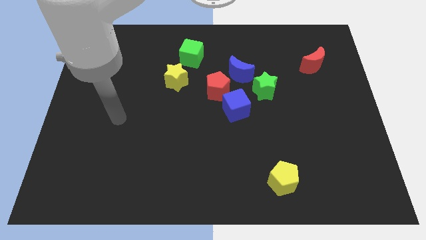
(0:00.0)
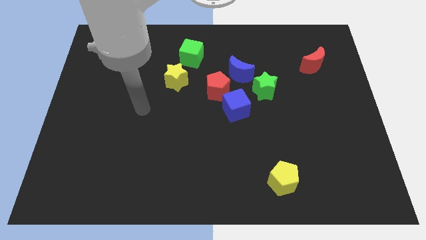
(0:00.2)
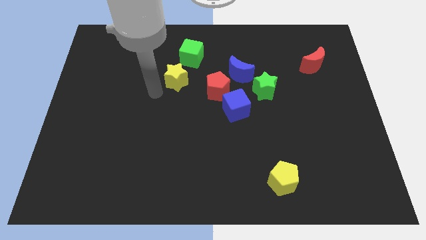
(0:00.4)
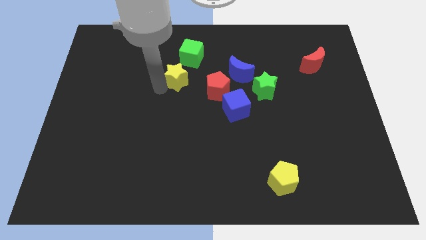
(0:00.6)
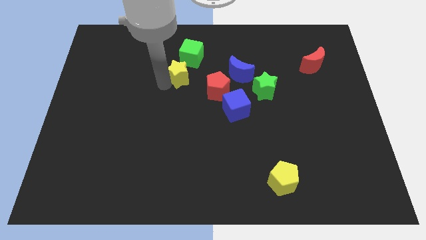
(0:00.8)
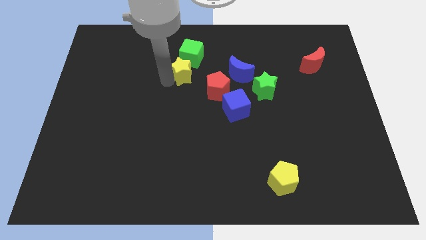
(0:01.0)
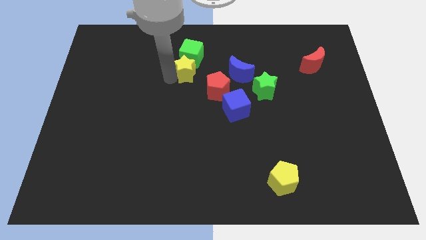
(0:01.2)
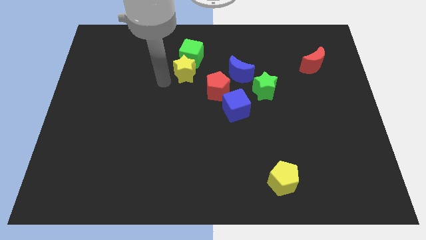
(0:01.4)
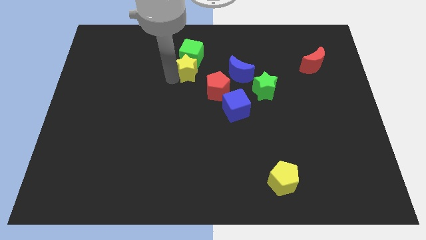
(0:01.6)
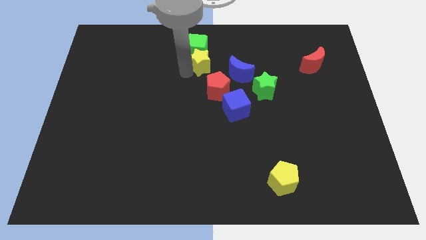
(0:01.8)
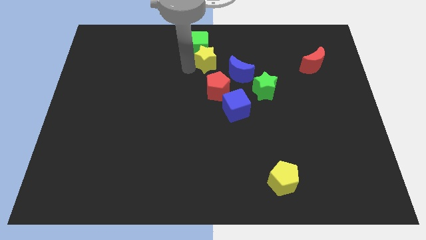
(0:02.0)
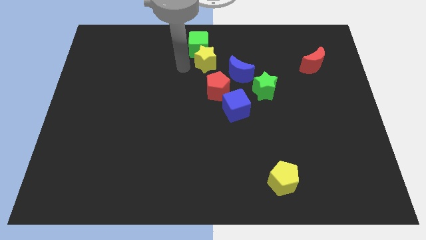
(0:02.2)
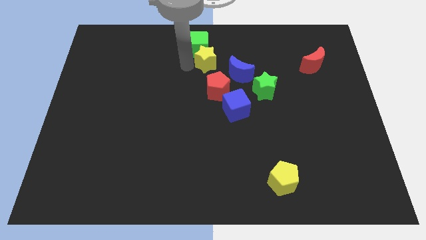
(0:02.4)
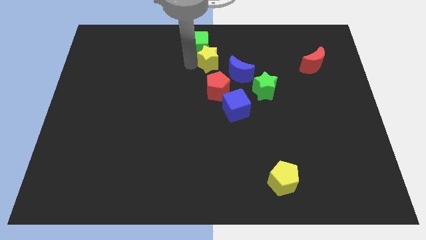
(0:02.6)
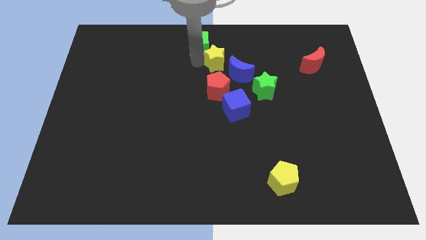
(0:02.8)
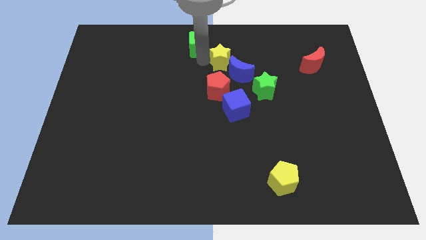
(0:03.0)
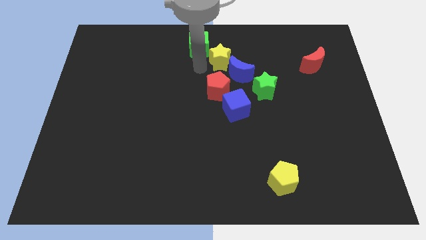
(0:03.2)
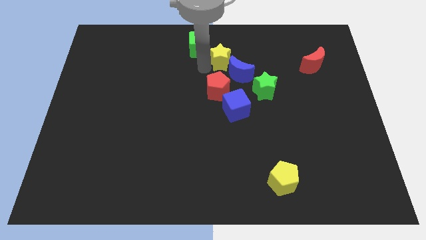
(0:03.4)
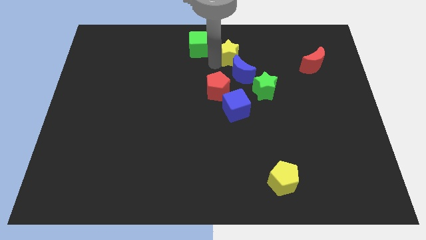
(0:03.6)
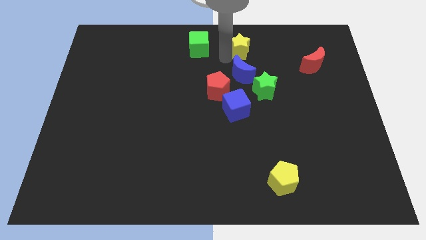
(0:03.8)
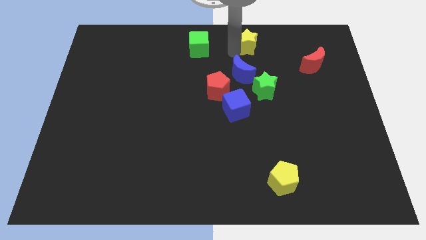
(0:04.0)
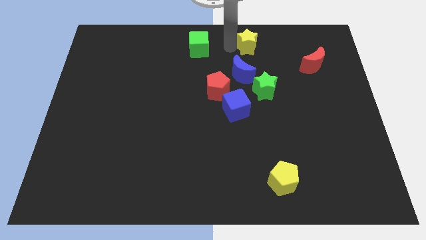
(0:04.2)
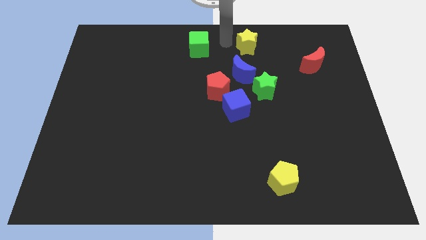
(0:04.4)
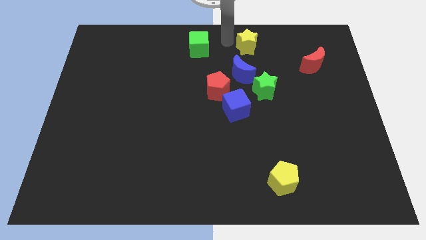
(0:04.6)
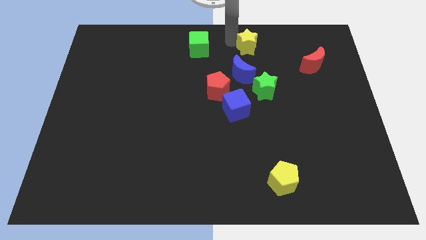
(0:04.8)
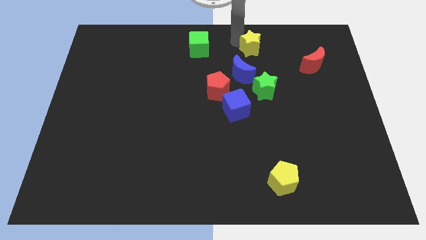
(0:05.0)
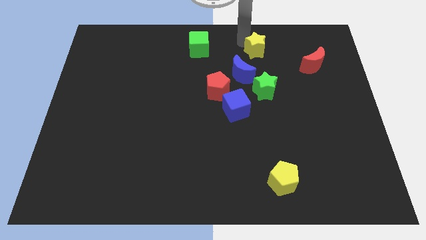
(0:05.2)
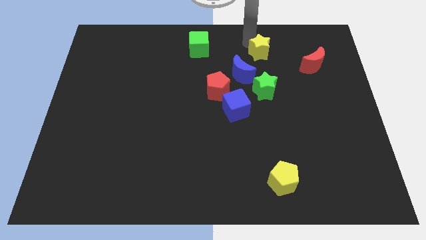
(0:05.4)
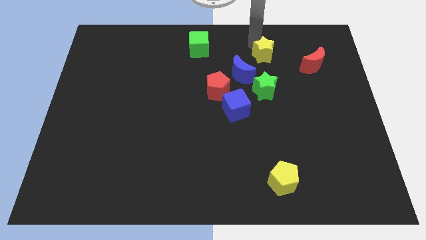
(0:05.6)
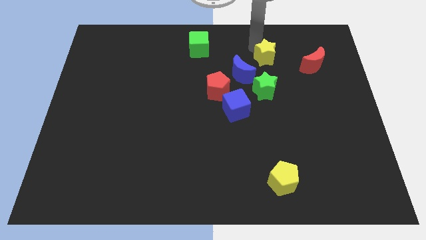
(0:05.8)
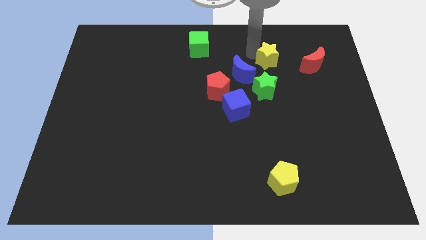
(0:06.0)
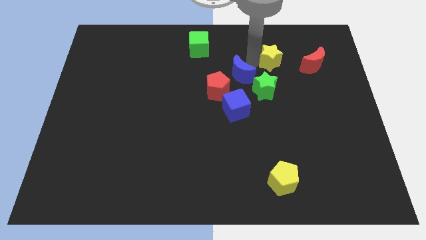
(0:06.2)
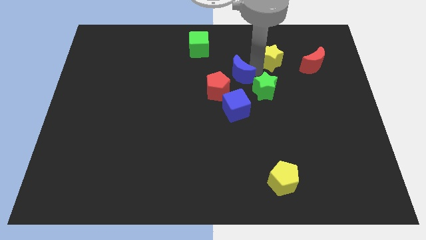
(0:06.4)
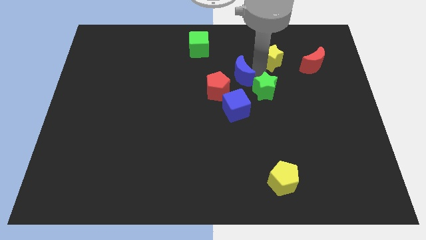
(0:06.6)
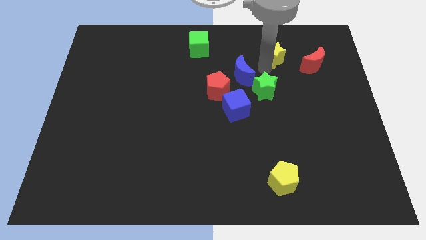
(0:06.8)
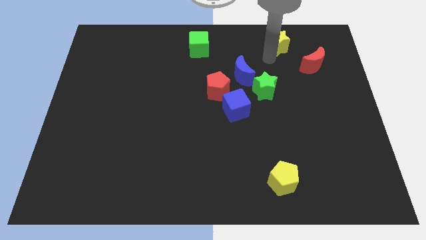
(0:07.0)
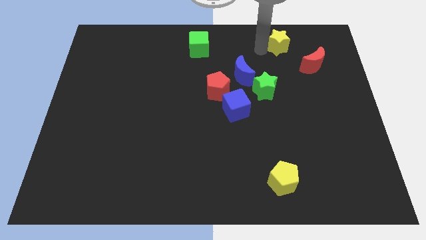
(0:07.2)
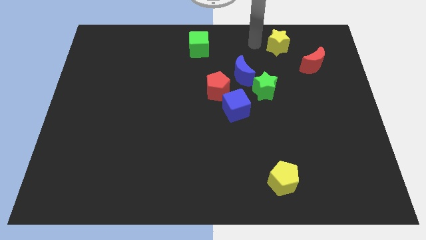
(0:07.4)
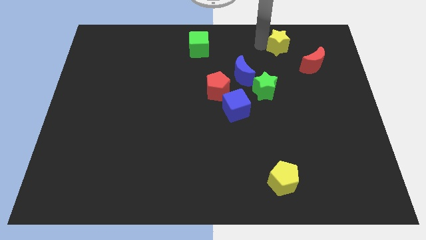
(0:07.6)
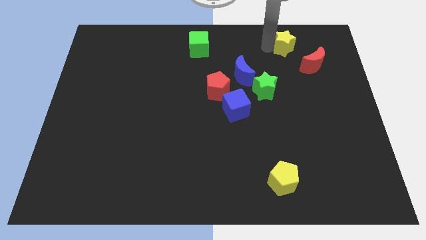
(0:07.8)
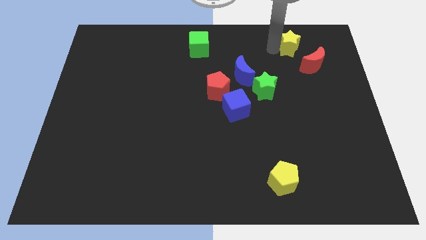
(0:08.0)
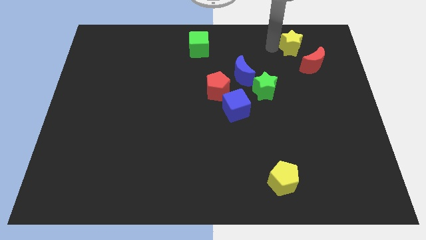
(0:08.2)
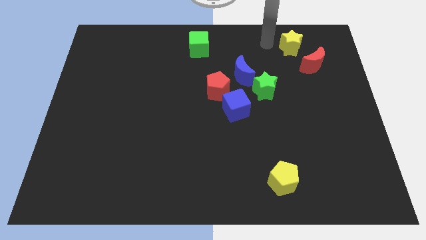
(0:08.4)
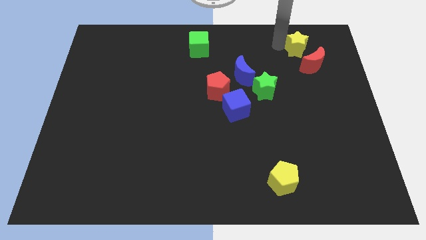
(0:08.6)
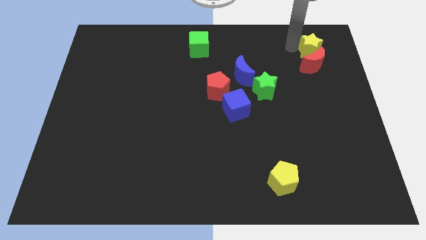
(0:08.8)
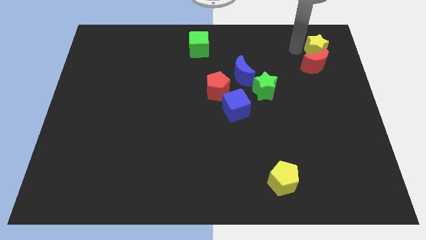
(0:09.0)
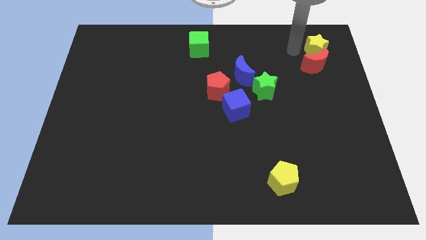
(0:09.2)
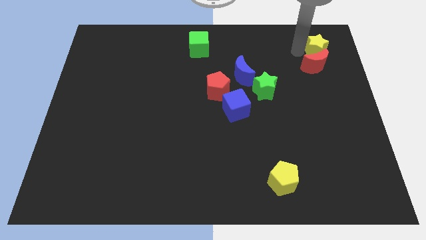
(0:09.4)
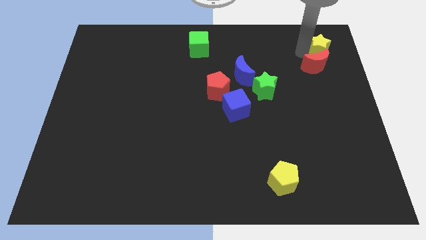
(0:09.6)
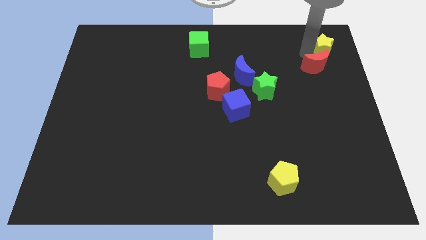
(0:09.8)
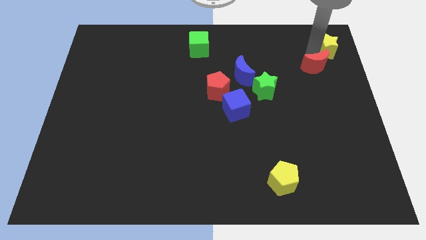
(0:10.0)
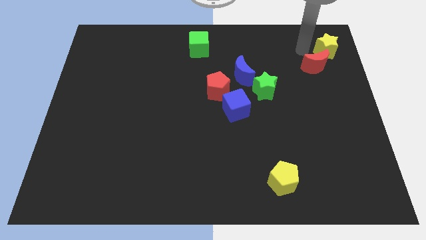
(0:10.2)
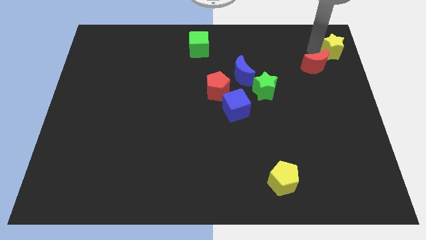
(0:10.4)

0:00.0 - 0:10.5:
put the yellow star to the top right corner

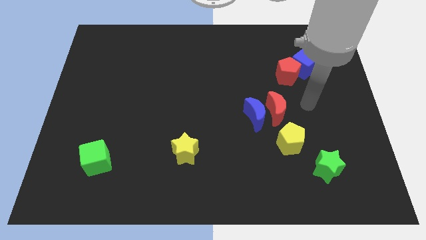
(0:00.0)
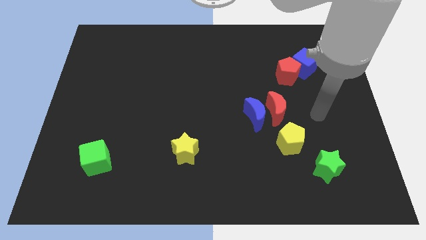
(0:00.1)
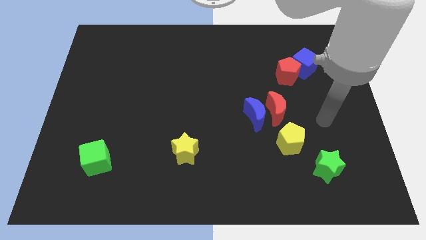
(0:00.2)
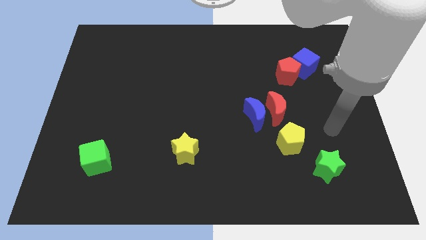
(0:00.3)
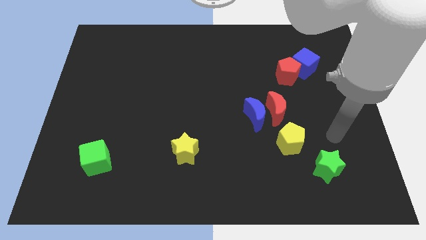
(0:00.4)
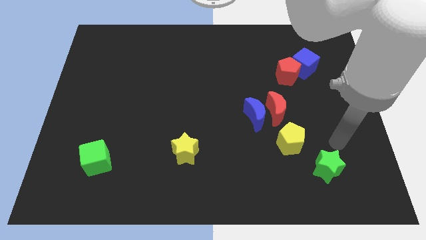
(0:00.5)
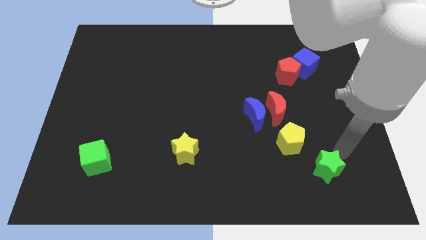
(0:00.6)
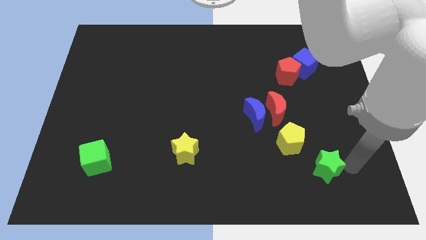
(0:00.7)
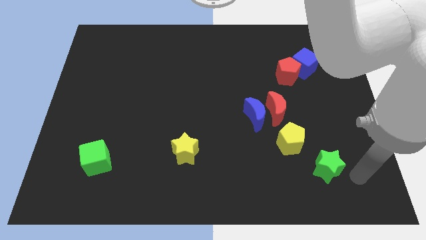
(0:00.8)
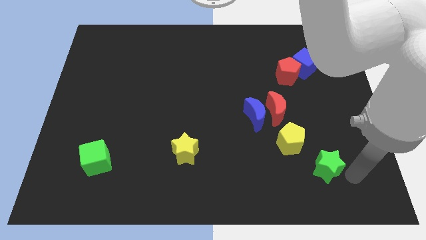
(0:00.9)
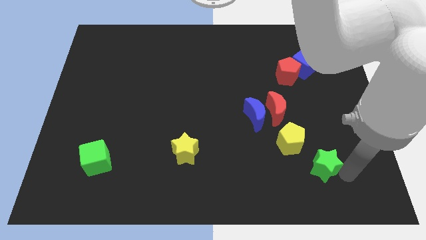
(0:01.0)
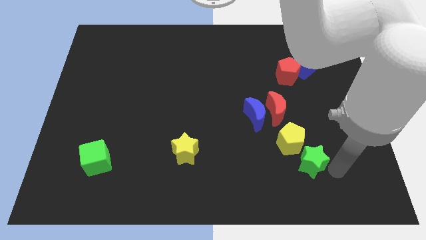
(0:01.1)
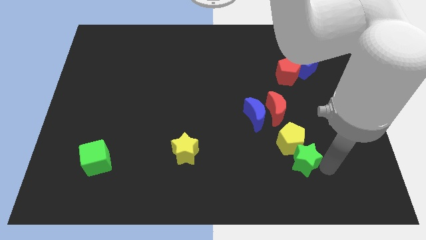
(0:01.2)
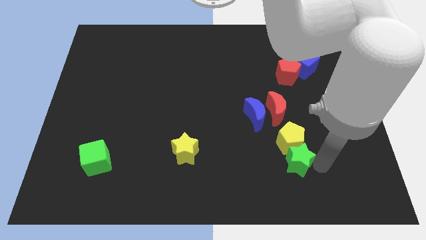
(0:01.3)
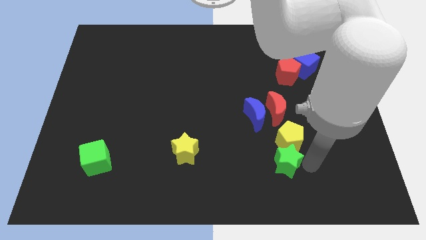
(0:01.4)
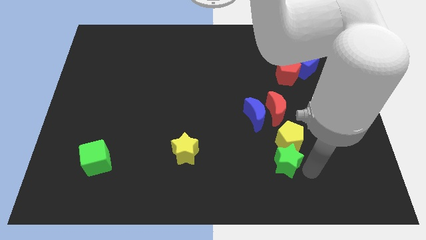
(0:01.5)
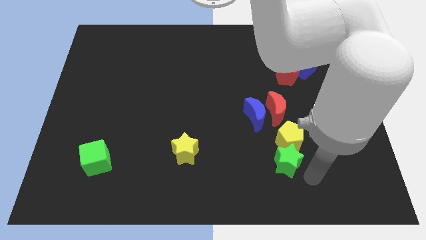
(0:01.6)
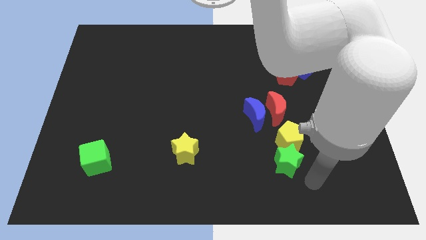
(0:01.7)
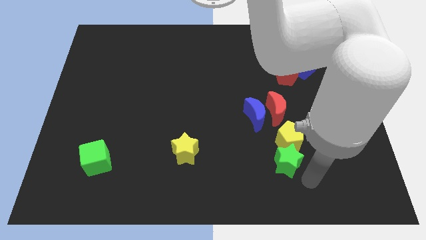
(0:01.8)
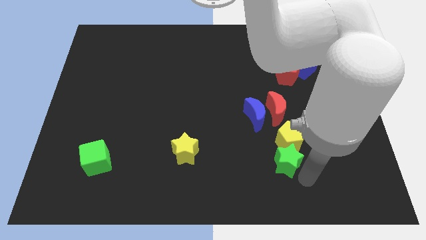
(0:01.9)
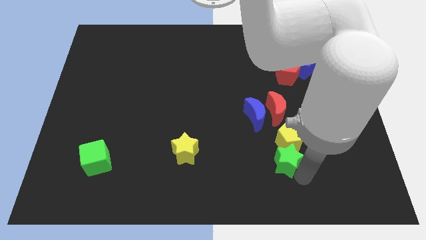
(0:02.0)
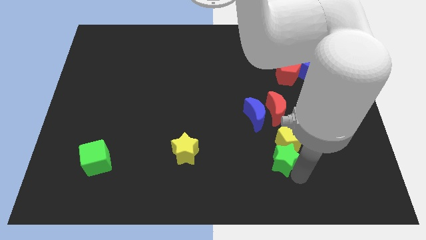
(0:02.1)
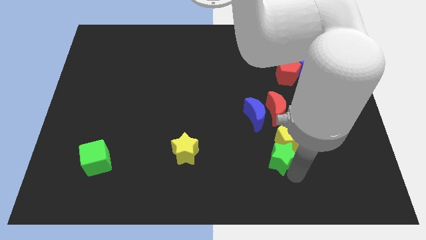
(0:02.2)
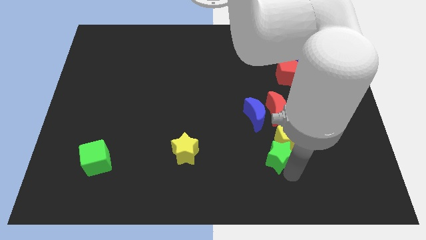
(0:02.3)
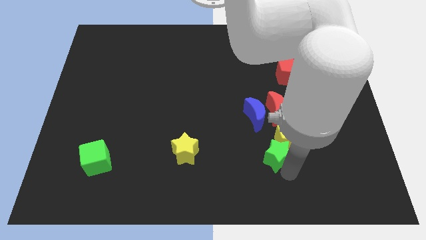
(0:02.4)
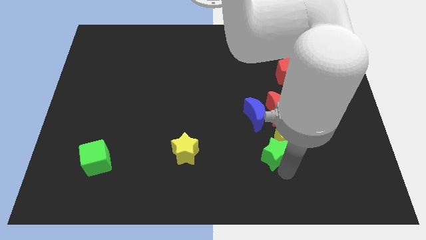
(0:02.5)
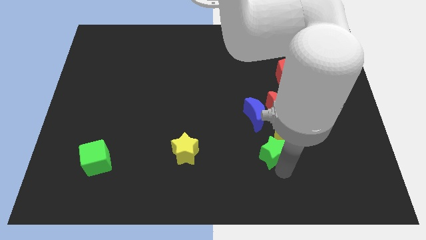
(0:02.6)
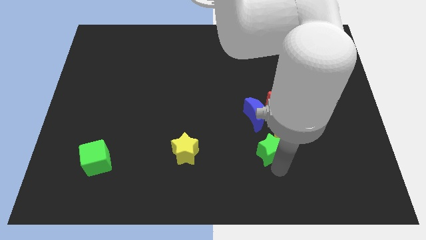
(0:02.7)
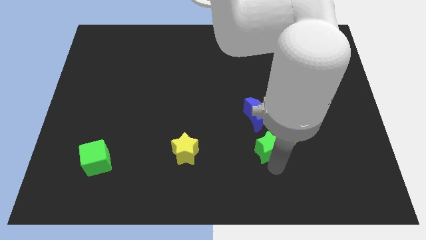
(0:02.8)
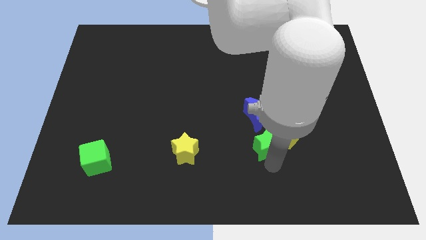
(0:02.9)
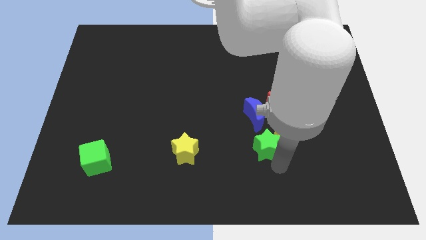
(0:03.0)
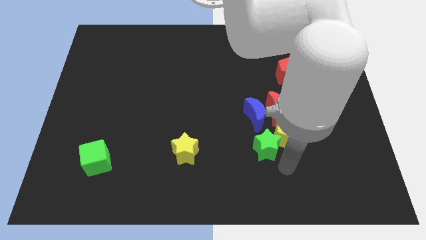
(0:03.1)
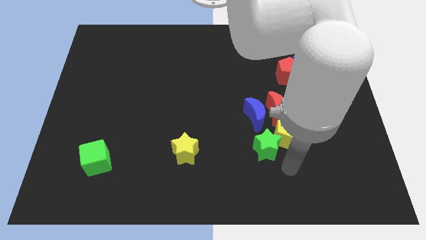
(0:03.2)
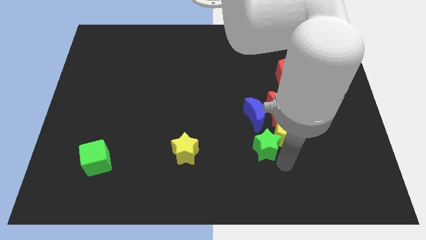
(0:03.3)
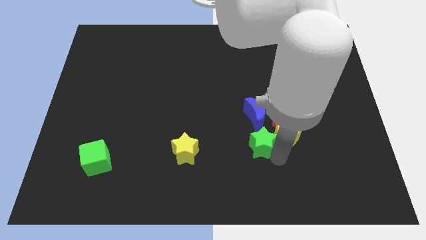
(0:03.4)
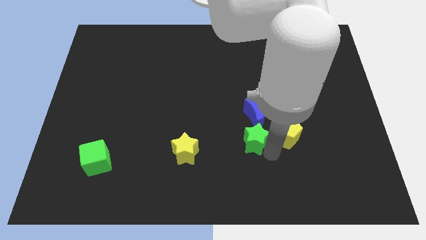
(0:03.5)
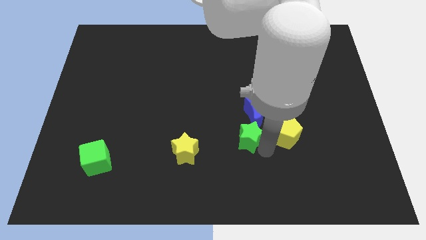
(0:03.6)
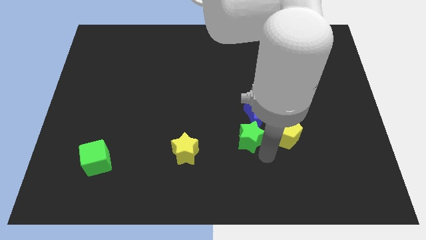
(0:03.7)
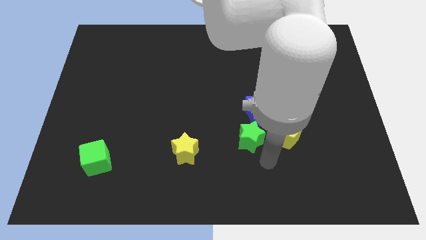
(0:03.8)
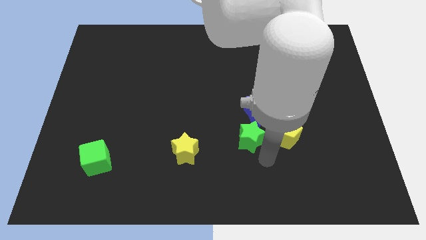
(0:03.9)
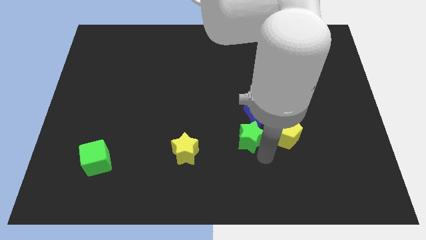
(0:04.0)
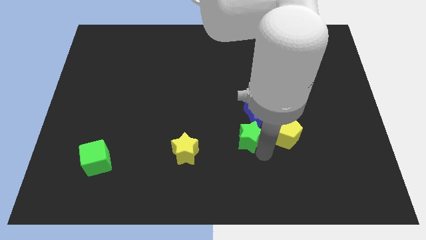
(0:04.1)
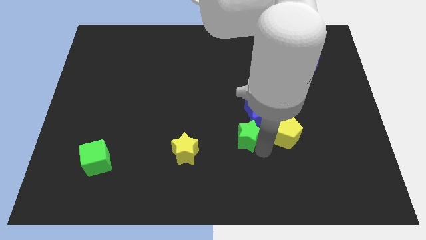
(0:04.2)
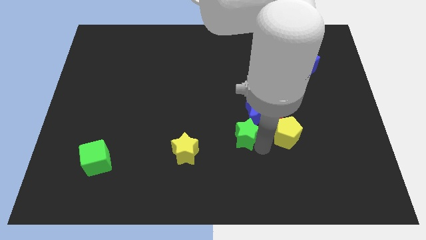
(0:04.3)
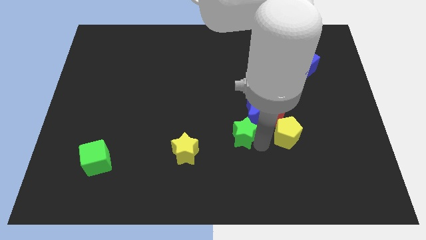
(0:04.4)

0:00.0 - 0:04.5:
put the green star to the center of the board
